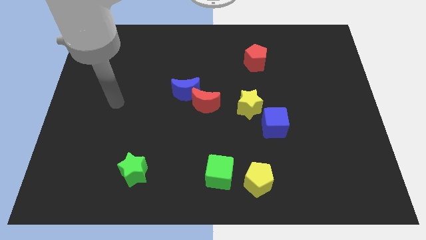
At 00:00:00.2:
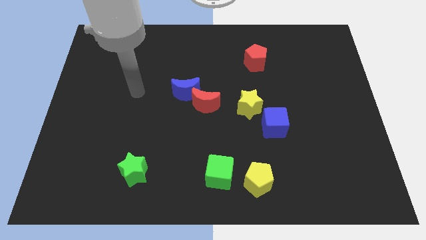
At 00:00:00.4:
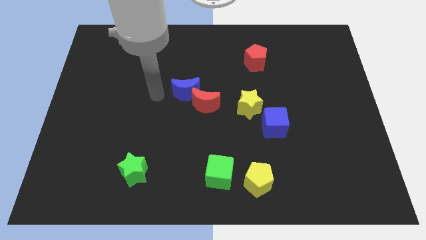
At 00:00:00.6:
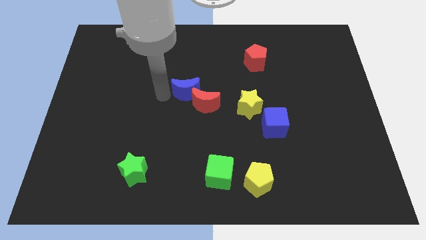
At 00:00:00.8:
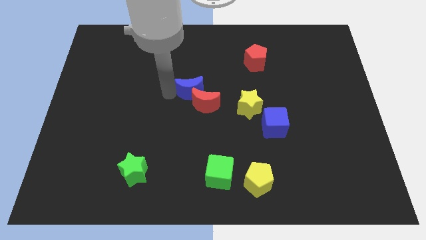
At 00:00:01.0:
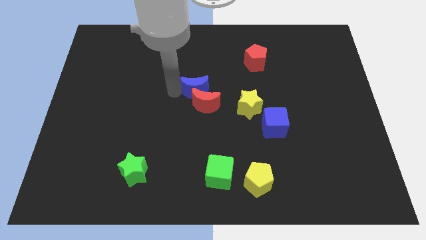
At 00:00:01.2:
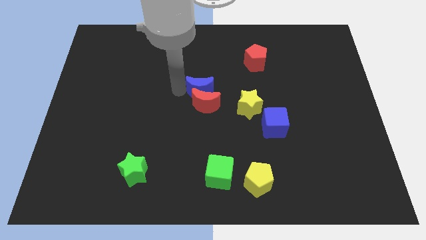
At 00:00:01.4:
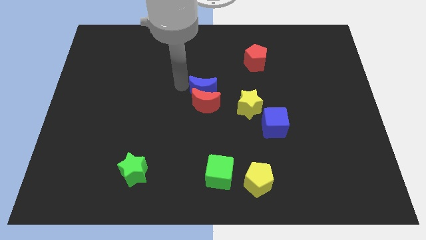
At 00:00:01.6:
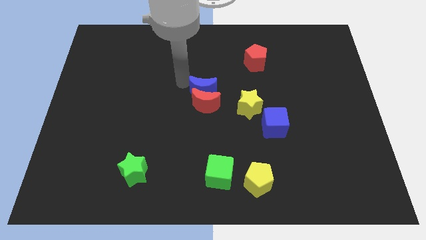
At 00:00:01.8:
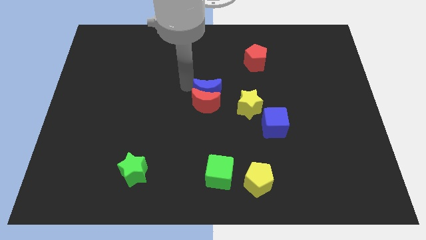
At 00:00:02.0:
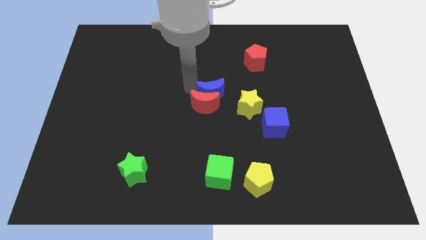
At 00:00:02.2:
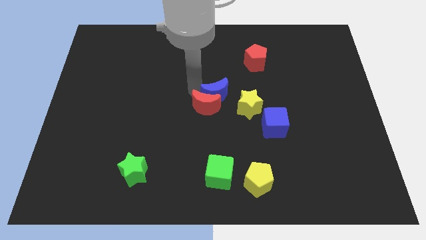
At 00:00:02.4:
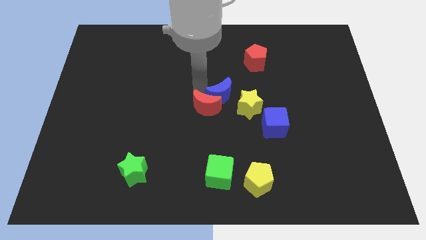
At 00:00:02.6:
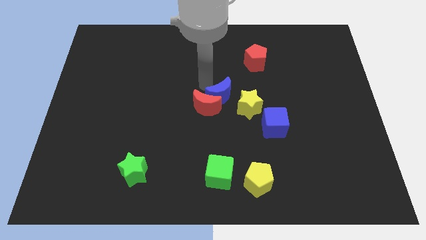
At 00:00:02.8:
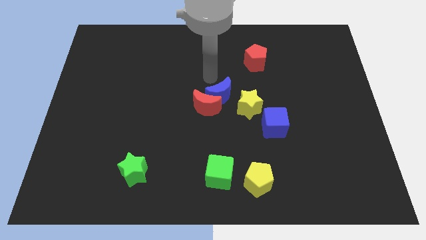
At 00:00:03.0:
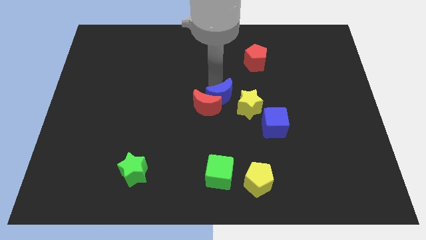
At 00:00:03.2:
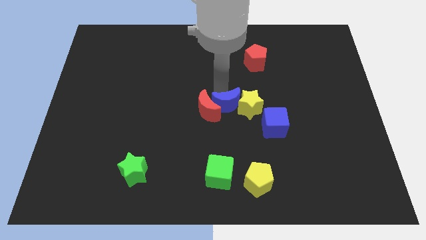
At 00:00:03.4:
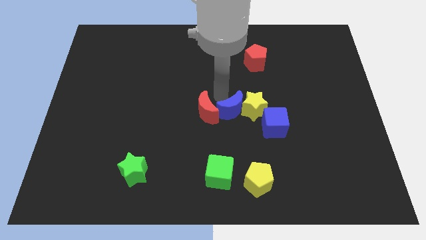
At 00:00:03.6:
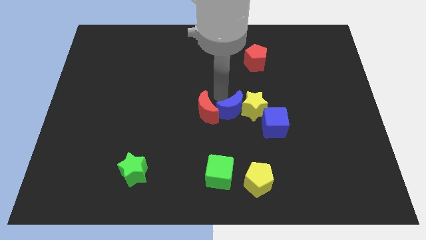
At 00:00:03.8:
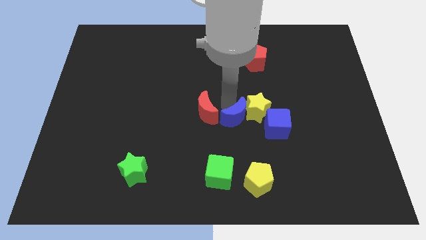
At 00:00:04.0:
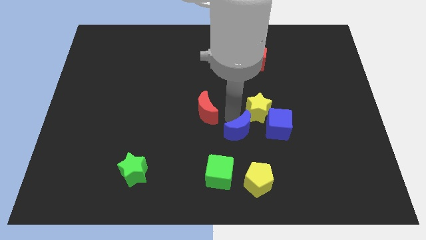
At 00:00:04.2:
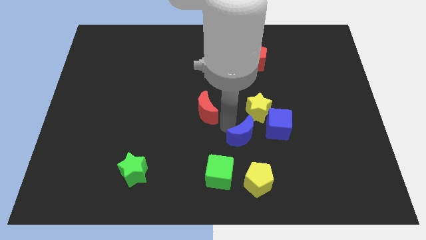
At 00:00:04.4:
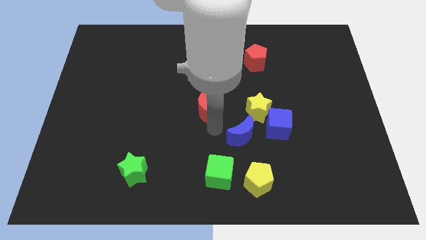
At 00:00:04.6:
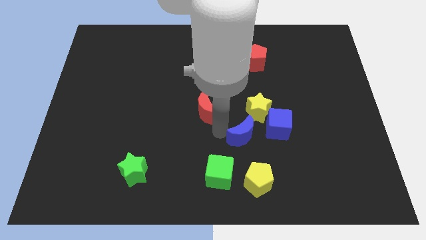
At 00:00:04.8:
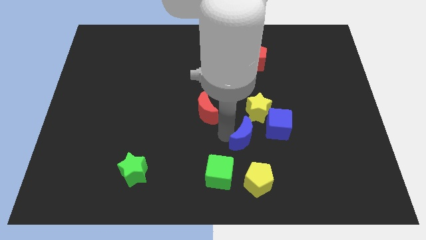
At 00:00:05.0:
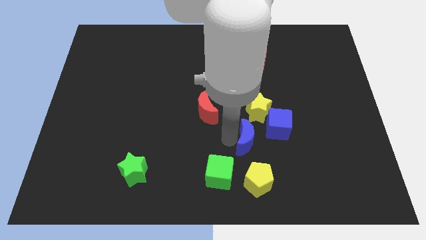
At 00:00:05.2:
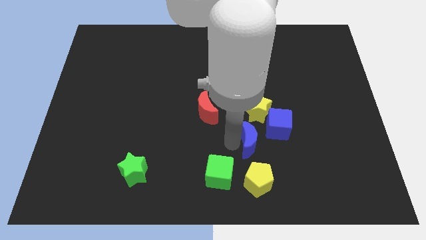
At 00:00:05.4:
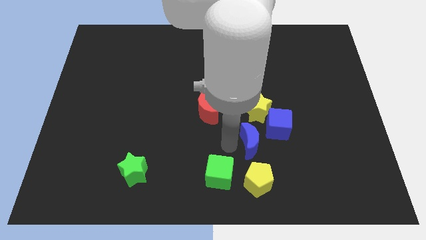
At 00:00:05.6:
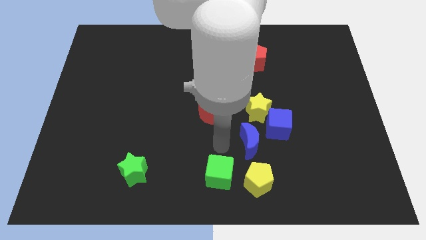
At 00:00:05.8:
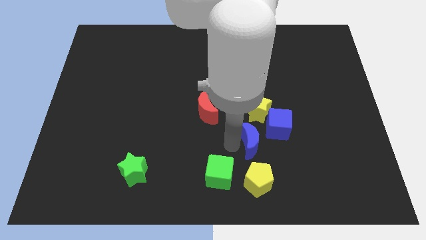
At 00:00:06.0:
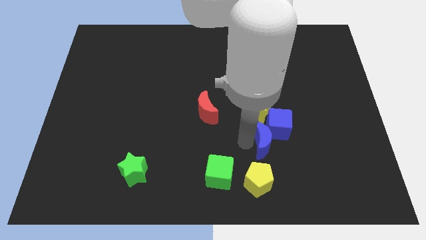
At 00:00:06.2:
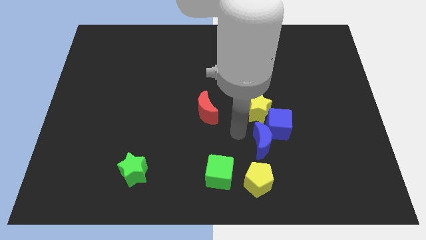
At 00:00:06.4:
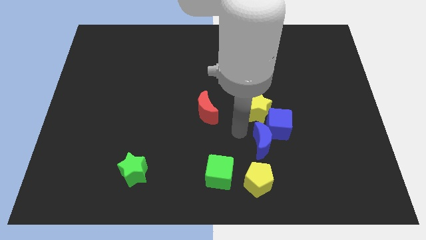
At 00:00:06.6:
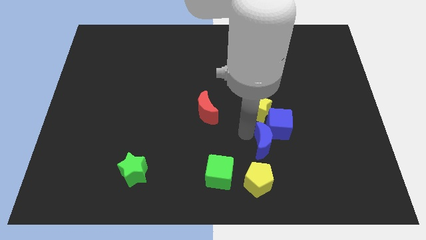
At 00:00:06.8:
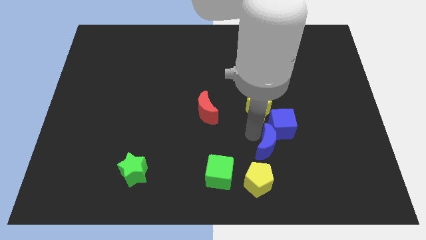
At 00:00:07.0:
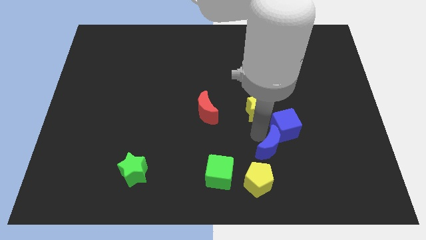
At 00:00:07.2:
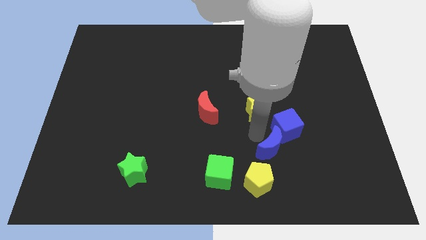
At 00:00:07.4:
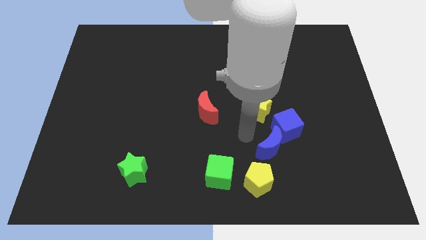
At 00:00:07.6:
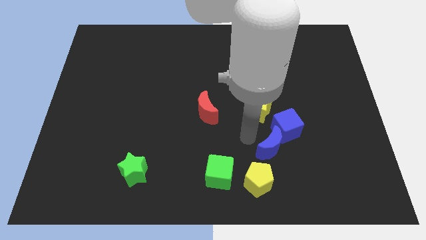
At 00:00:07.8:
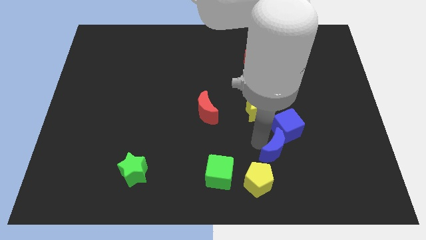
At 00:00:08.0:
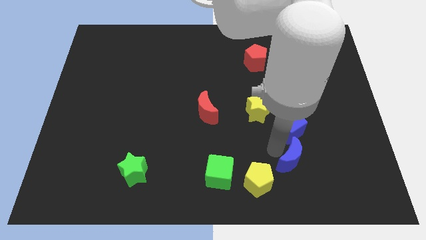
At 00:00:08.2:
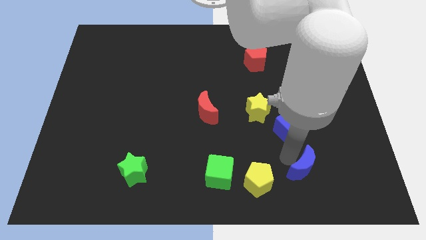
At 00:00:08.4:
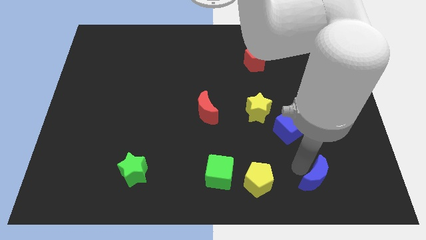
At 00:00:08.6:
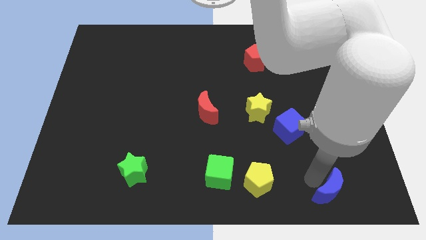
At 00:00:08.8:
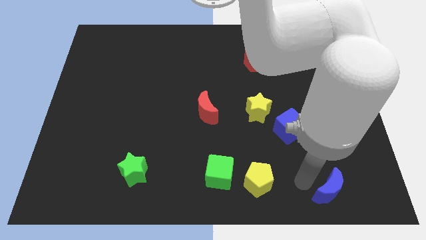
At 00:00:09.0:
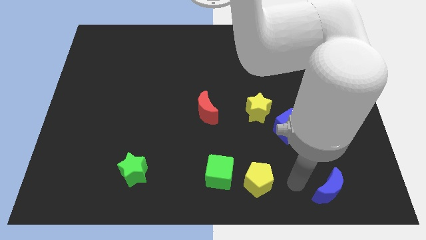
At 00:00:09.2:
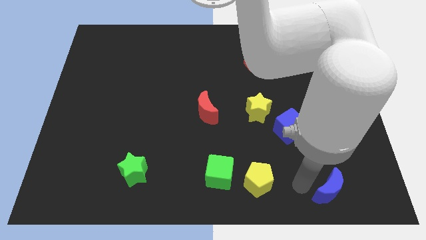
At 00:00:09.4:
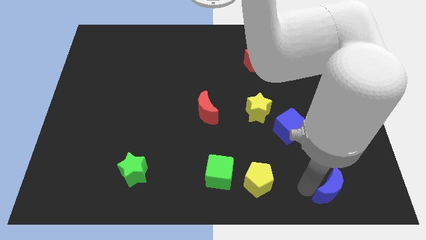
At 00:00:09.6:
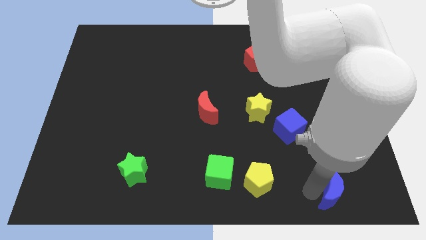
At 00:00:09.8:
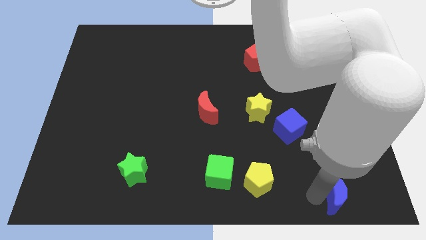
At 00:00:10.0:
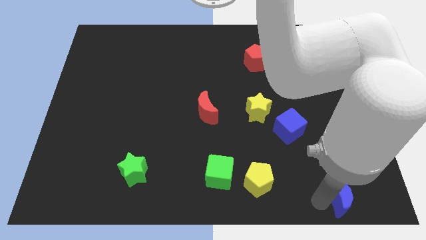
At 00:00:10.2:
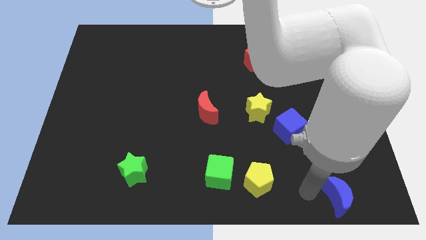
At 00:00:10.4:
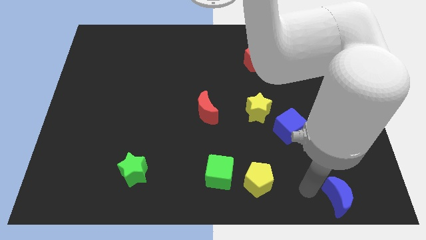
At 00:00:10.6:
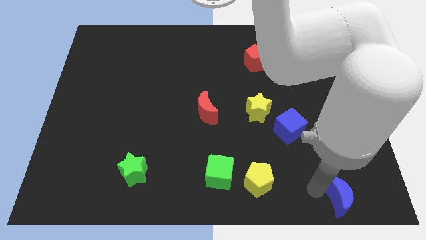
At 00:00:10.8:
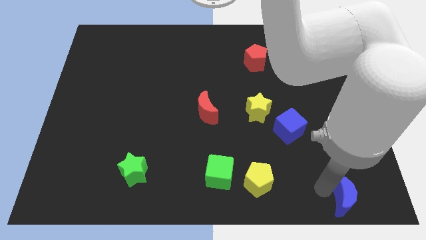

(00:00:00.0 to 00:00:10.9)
put the blue moon to the lower right corner
